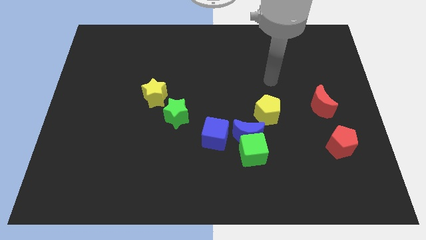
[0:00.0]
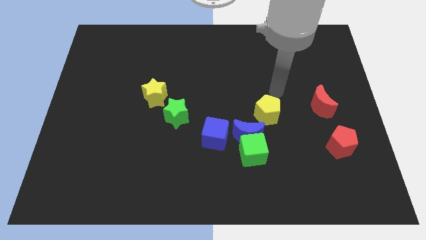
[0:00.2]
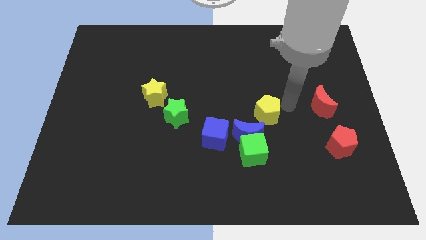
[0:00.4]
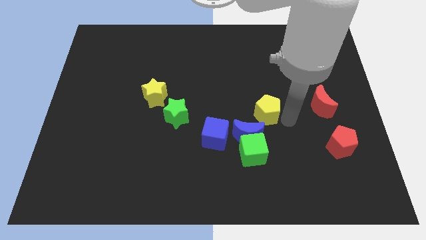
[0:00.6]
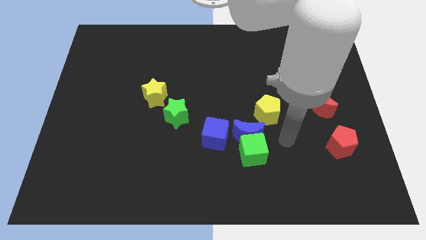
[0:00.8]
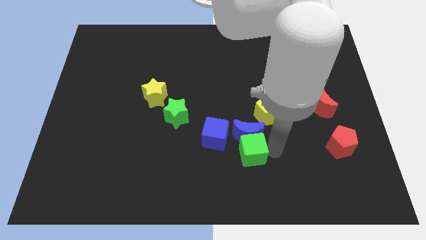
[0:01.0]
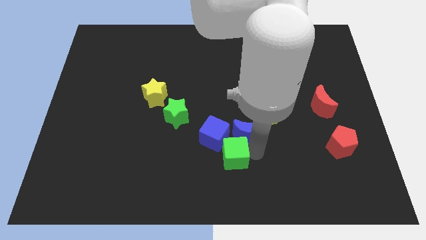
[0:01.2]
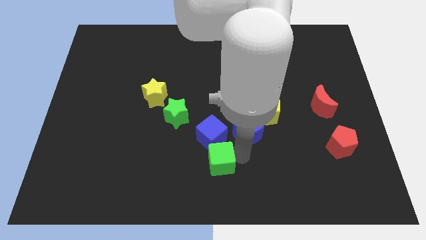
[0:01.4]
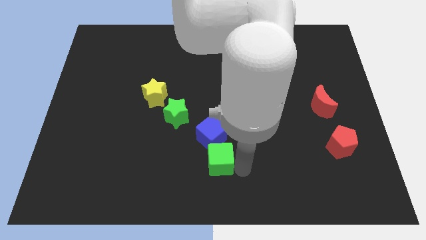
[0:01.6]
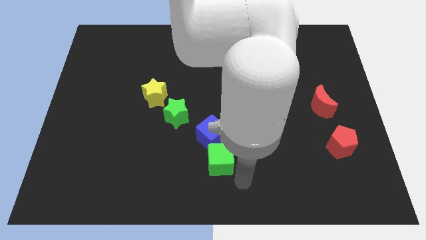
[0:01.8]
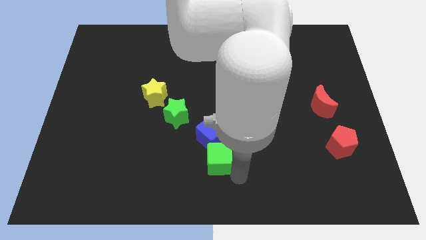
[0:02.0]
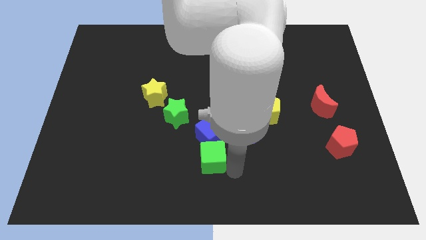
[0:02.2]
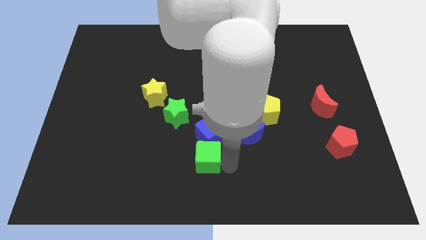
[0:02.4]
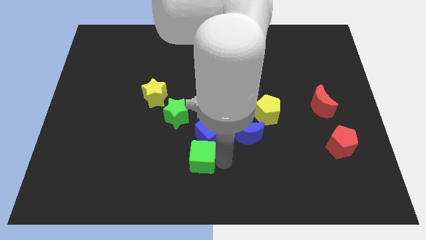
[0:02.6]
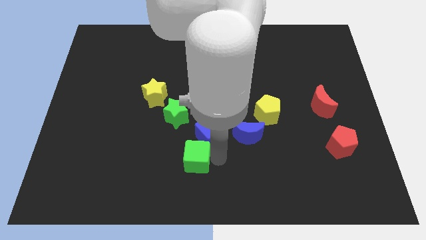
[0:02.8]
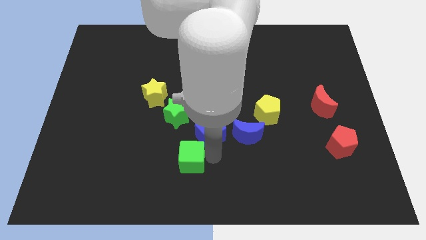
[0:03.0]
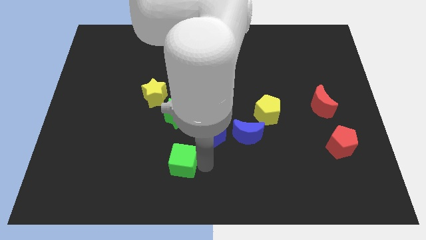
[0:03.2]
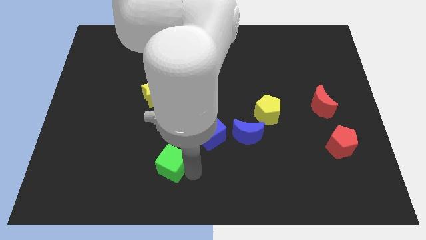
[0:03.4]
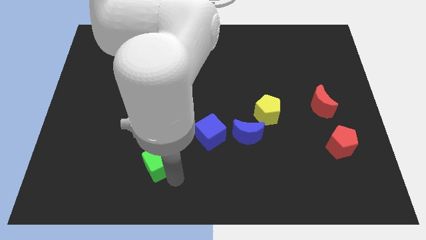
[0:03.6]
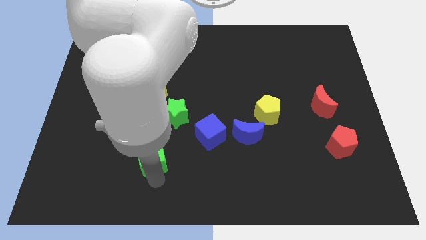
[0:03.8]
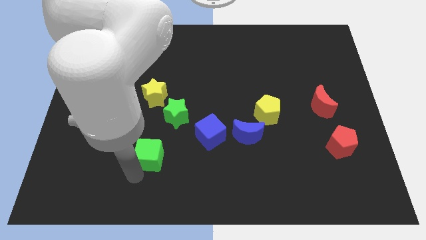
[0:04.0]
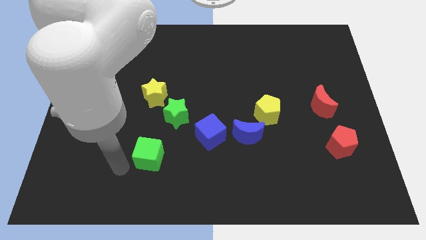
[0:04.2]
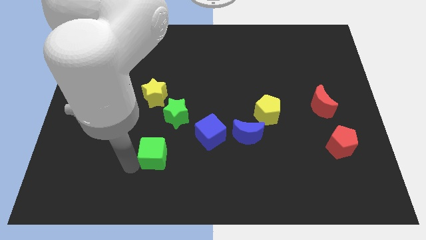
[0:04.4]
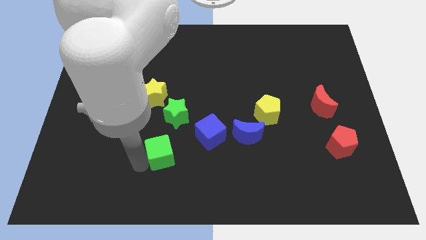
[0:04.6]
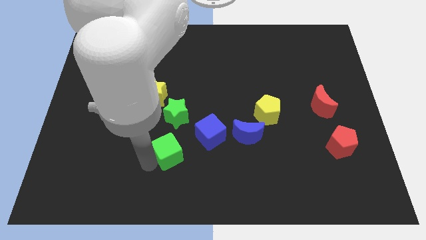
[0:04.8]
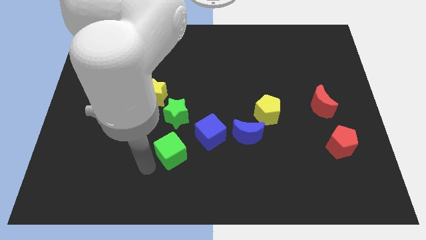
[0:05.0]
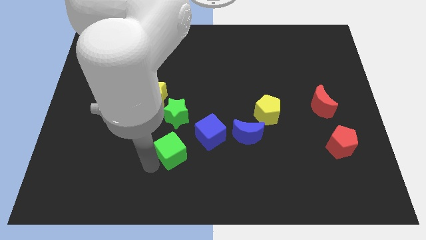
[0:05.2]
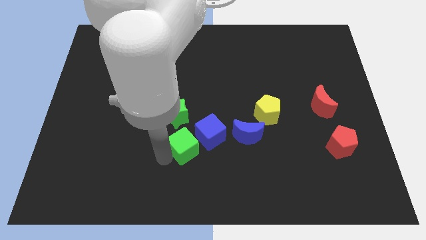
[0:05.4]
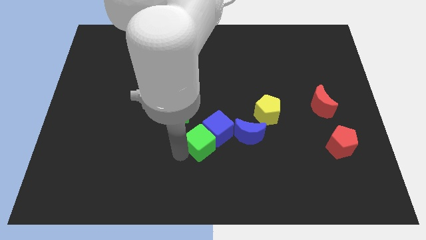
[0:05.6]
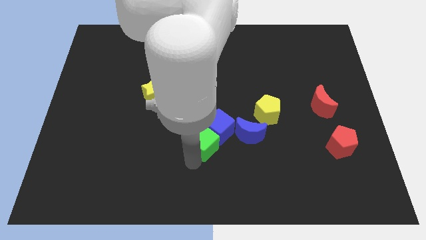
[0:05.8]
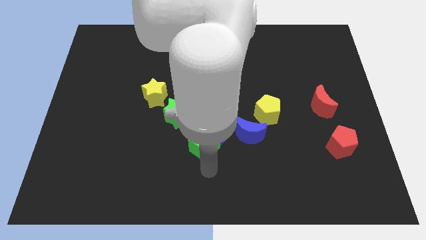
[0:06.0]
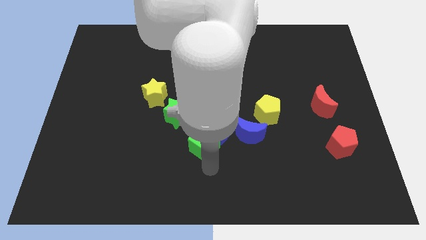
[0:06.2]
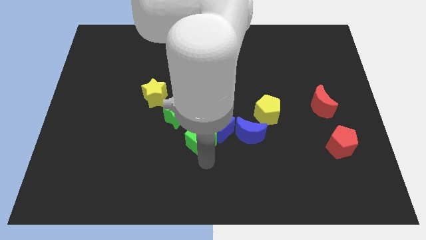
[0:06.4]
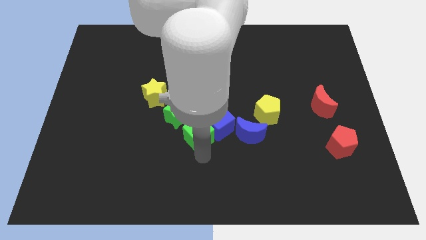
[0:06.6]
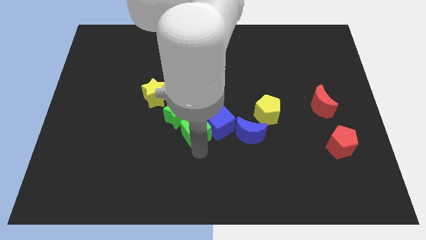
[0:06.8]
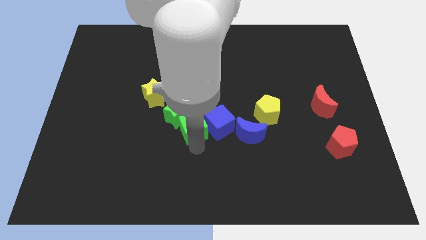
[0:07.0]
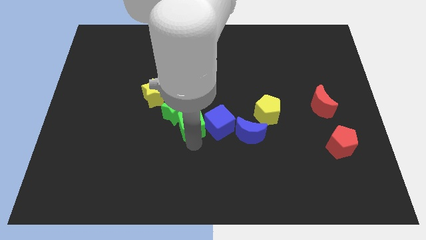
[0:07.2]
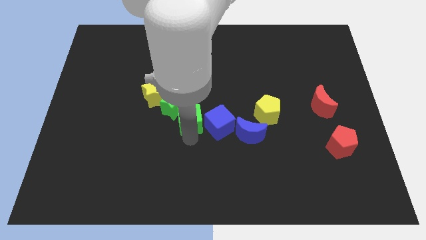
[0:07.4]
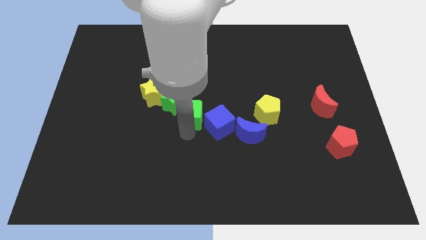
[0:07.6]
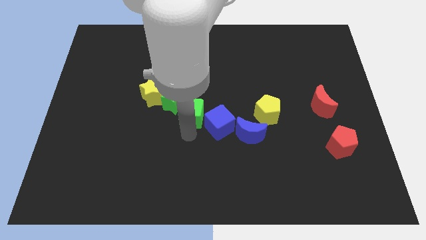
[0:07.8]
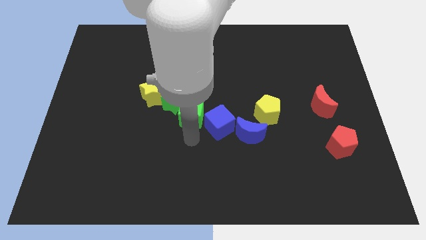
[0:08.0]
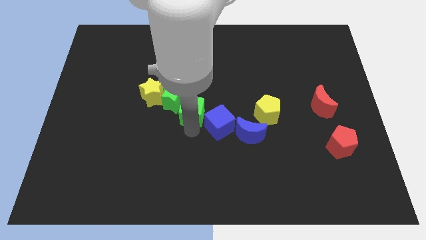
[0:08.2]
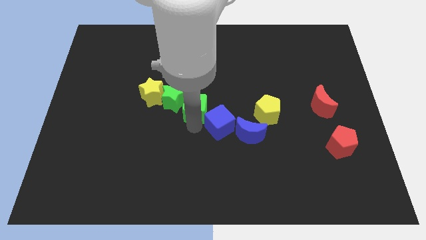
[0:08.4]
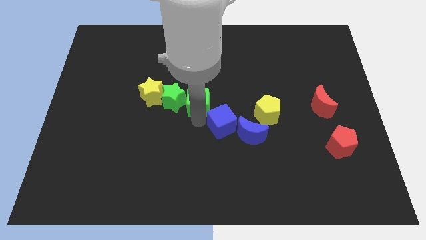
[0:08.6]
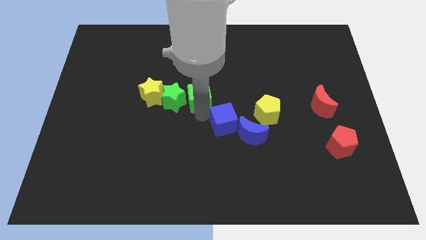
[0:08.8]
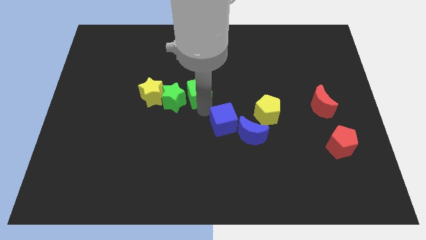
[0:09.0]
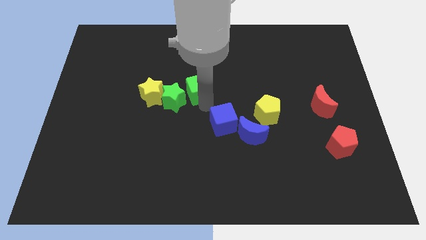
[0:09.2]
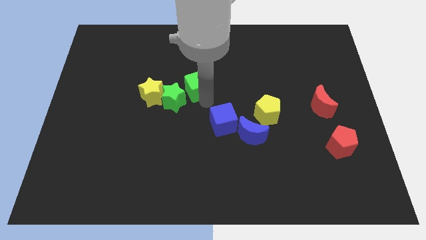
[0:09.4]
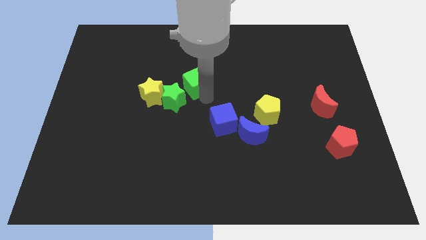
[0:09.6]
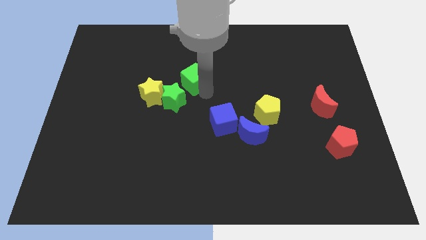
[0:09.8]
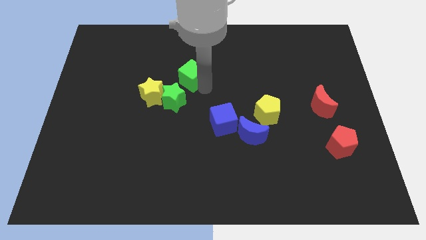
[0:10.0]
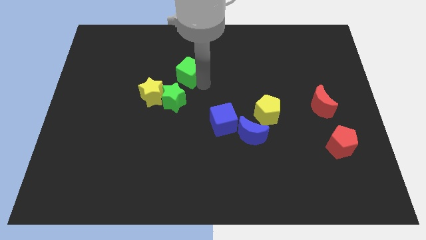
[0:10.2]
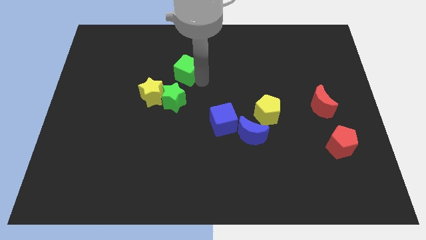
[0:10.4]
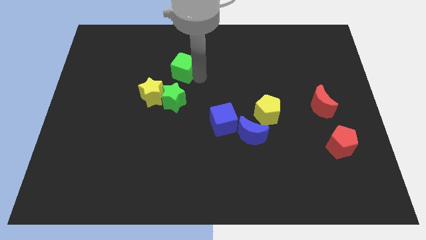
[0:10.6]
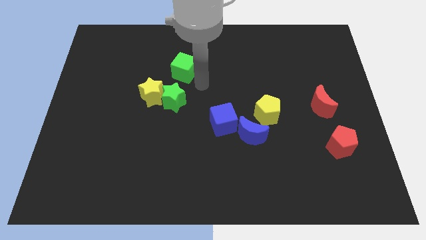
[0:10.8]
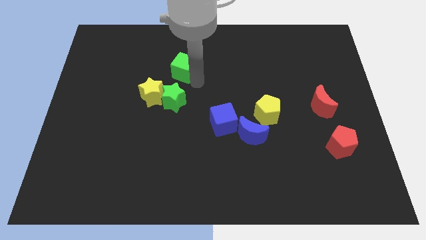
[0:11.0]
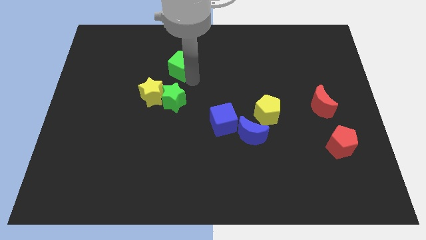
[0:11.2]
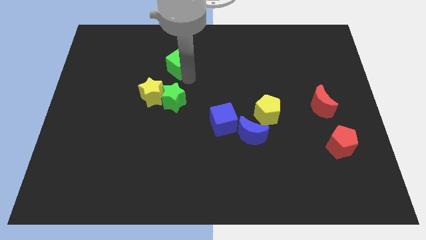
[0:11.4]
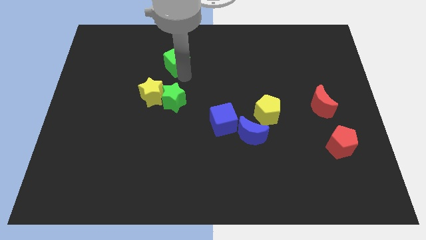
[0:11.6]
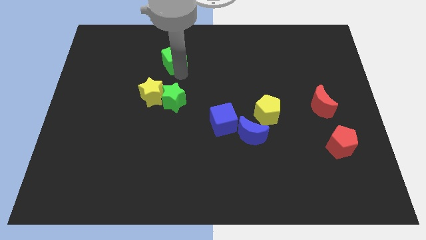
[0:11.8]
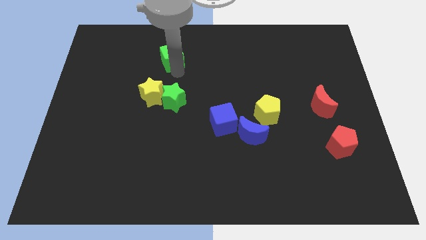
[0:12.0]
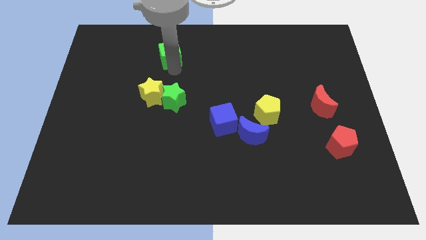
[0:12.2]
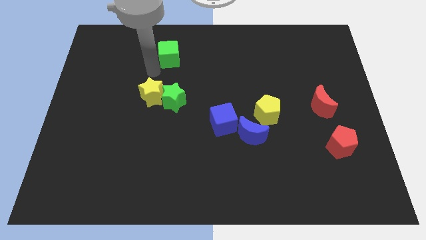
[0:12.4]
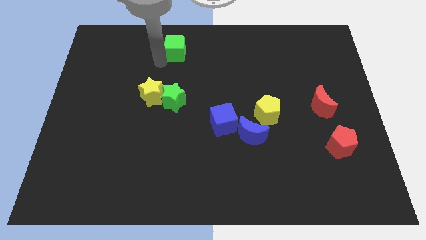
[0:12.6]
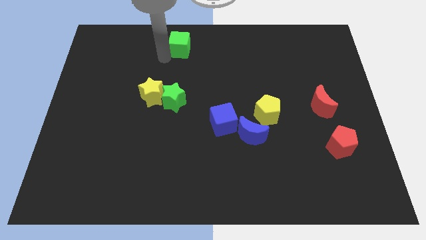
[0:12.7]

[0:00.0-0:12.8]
slide the green cube to the top side
